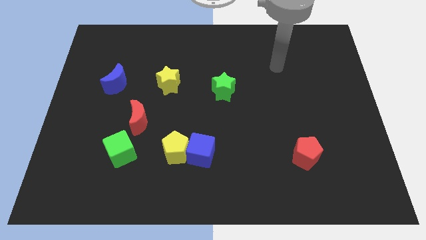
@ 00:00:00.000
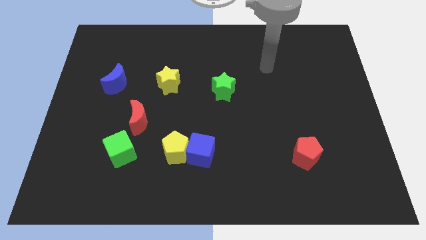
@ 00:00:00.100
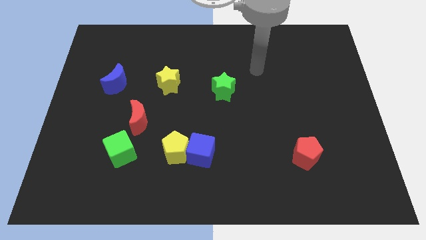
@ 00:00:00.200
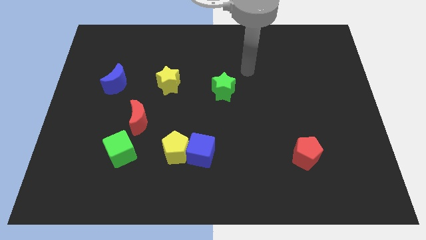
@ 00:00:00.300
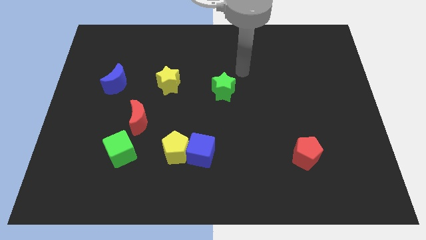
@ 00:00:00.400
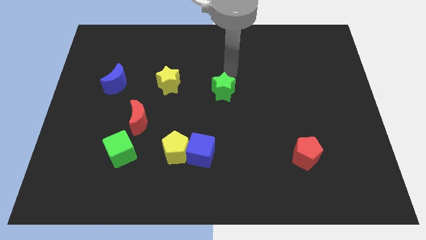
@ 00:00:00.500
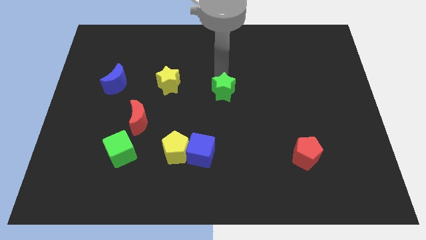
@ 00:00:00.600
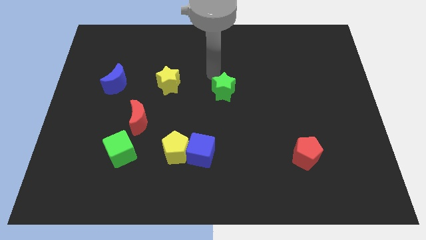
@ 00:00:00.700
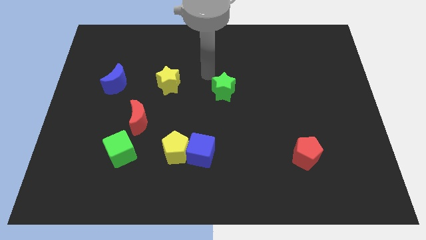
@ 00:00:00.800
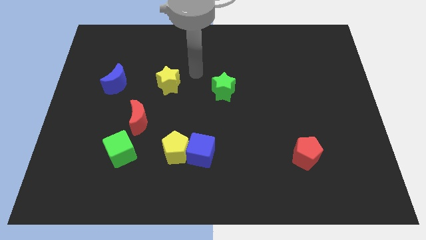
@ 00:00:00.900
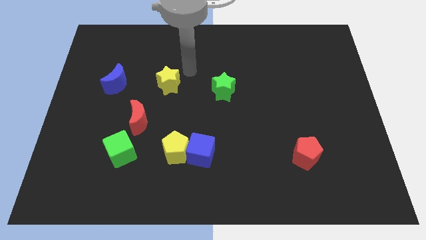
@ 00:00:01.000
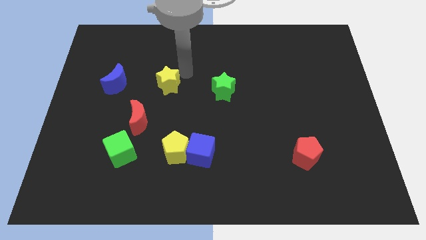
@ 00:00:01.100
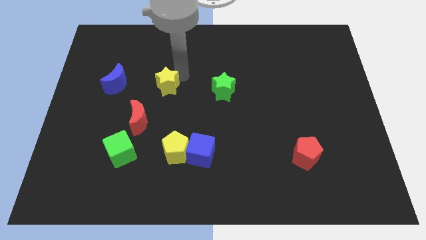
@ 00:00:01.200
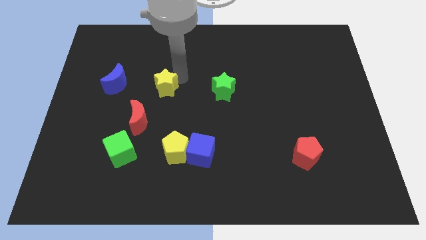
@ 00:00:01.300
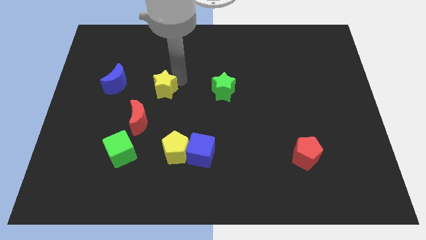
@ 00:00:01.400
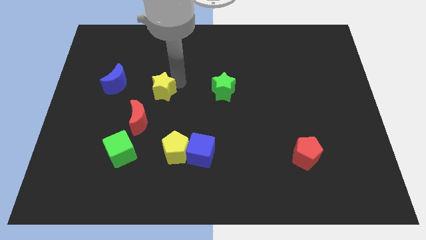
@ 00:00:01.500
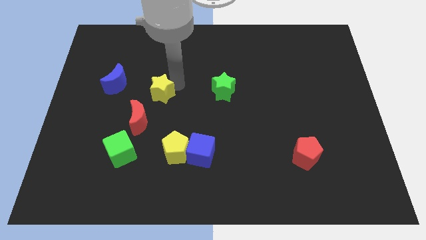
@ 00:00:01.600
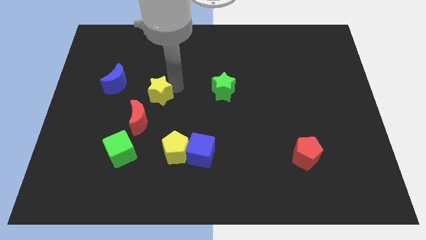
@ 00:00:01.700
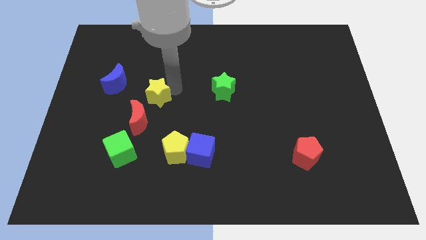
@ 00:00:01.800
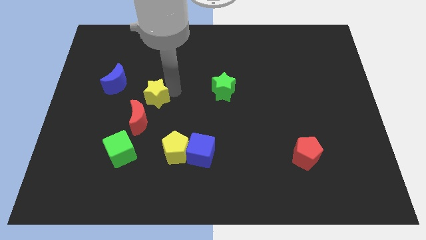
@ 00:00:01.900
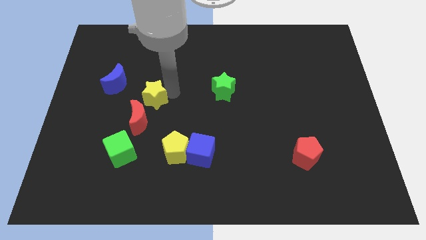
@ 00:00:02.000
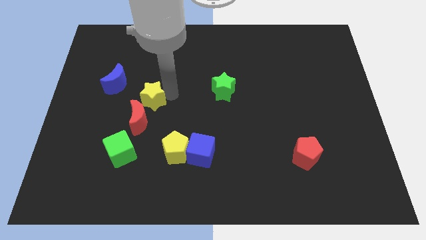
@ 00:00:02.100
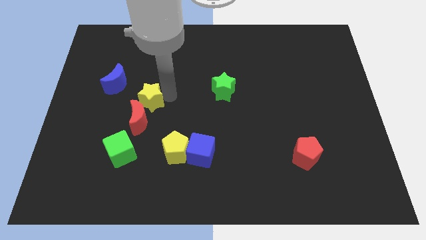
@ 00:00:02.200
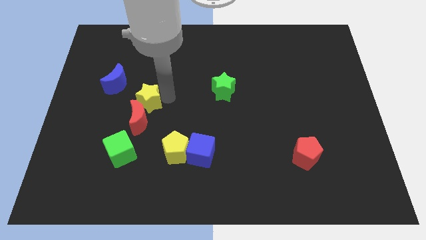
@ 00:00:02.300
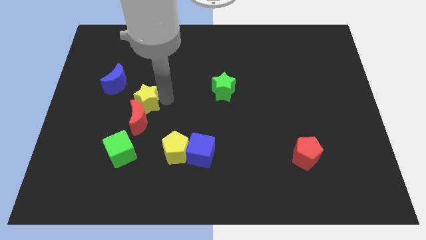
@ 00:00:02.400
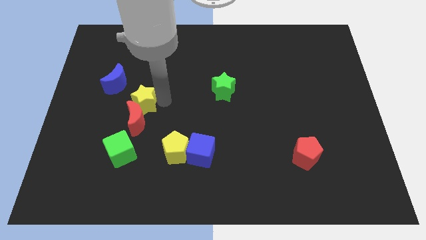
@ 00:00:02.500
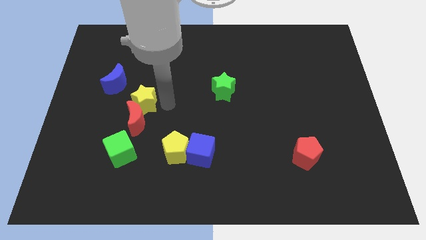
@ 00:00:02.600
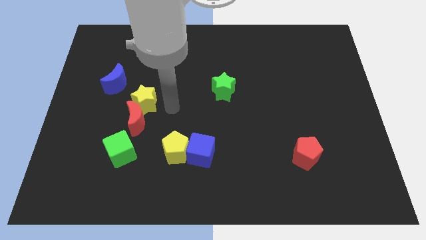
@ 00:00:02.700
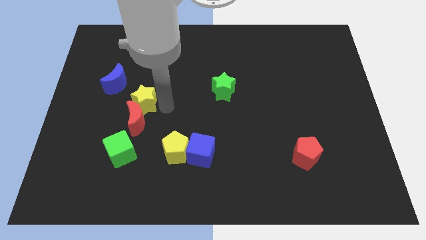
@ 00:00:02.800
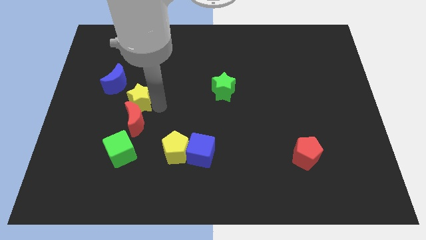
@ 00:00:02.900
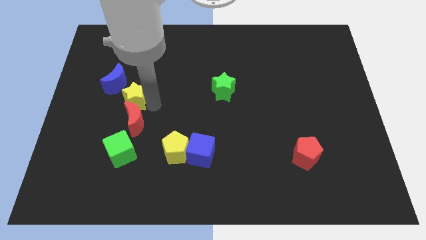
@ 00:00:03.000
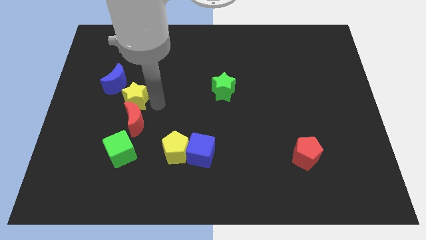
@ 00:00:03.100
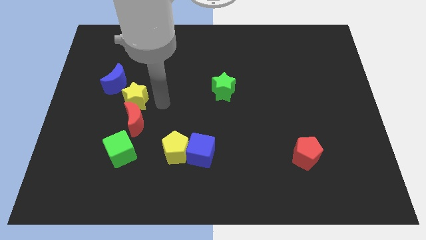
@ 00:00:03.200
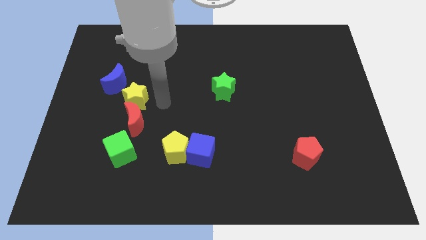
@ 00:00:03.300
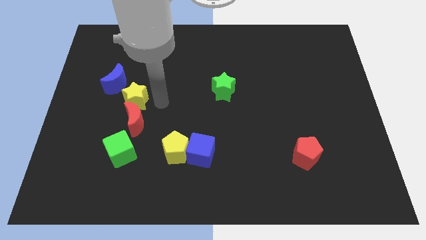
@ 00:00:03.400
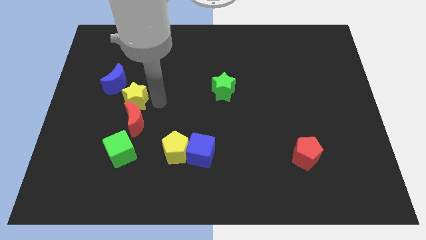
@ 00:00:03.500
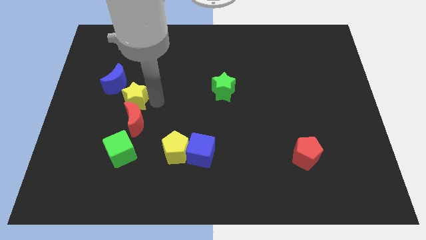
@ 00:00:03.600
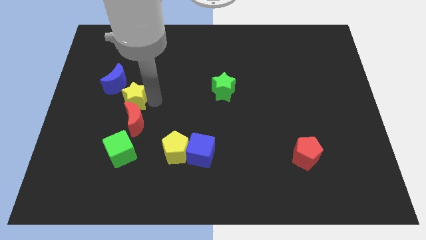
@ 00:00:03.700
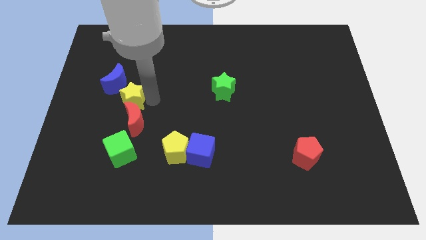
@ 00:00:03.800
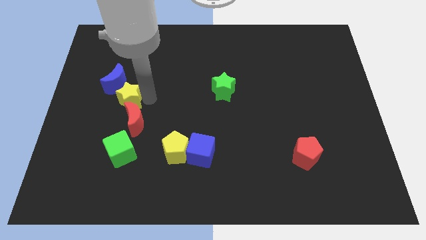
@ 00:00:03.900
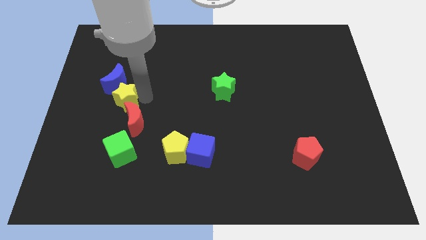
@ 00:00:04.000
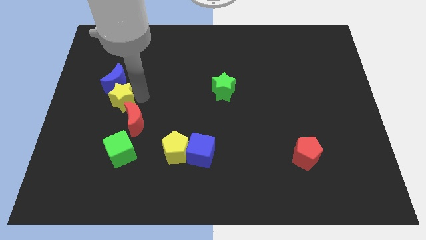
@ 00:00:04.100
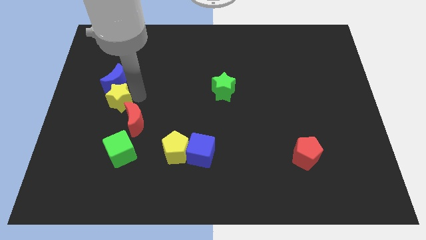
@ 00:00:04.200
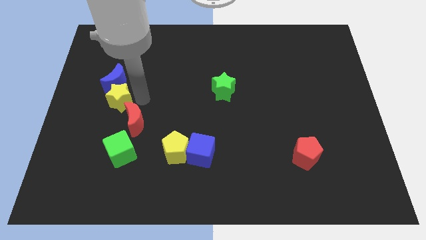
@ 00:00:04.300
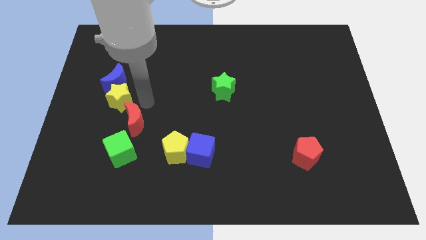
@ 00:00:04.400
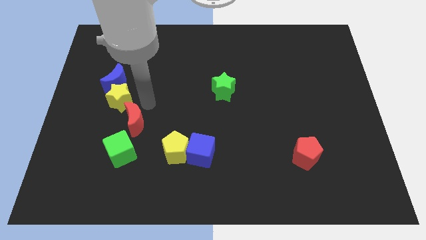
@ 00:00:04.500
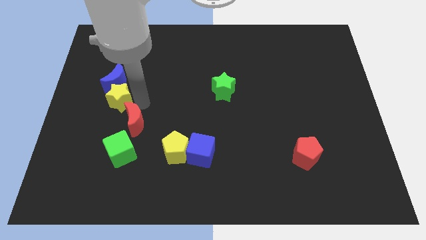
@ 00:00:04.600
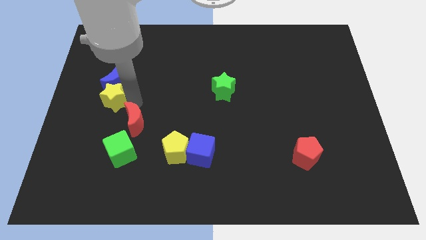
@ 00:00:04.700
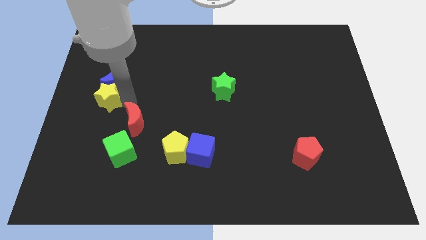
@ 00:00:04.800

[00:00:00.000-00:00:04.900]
slide the yellow star to the center left

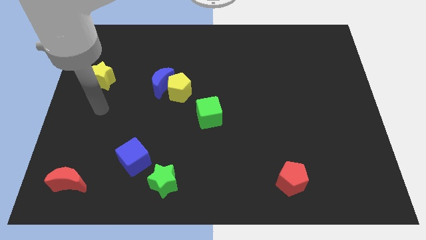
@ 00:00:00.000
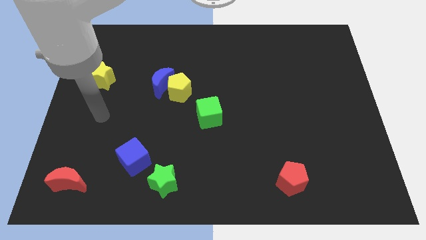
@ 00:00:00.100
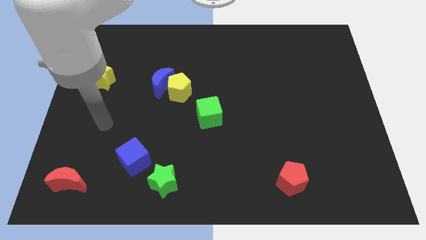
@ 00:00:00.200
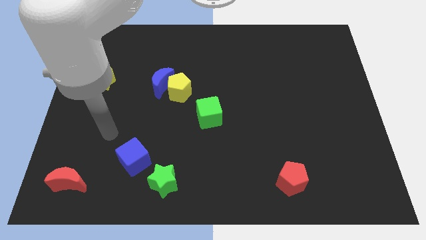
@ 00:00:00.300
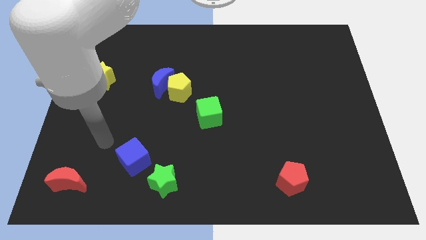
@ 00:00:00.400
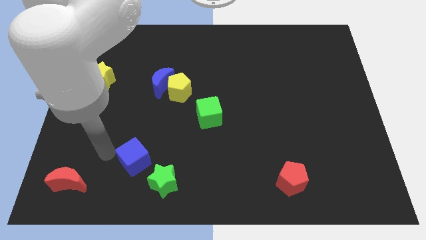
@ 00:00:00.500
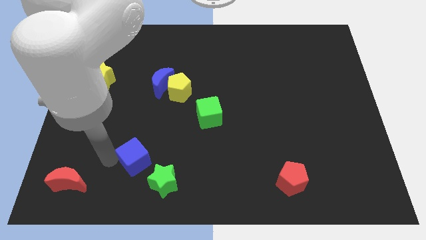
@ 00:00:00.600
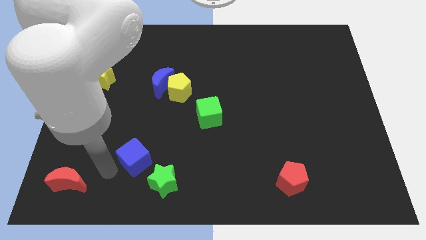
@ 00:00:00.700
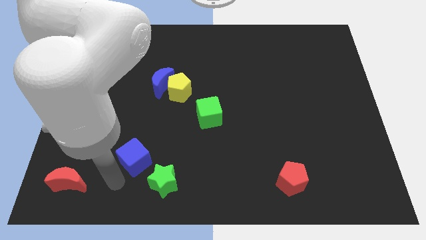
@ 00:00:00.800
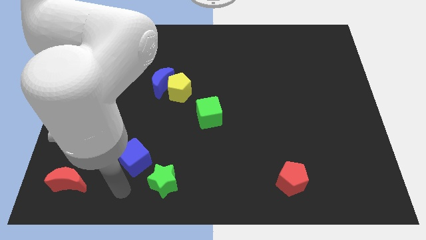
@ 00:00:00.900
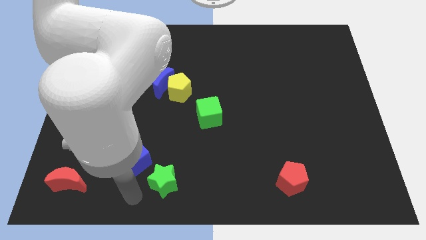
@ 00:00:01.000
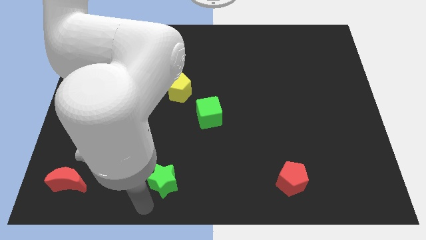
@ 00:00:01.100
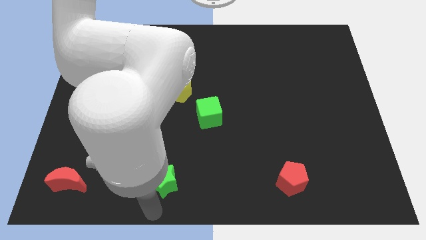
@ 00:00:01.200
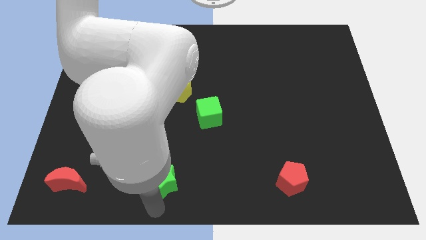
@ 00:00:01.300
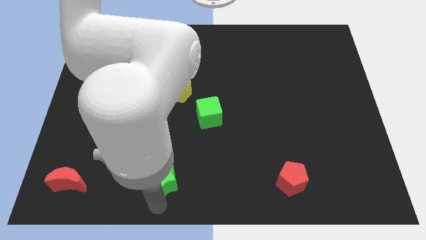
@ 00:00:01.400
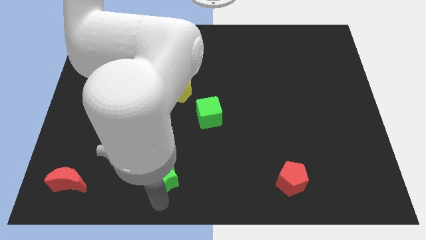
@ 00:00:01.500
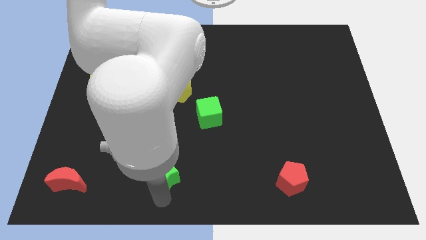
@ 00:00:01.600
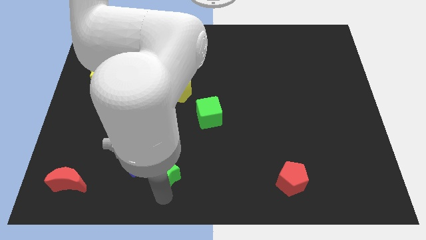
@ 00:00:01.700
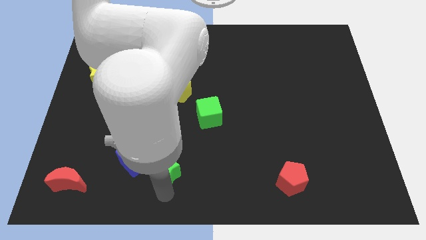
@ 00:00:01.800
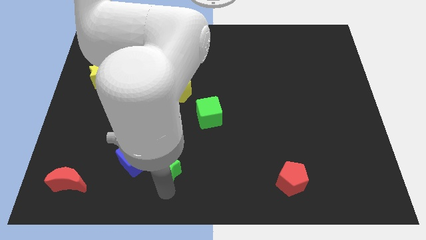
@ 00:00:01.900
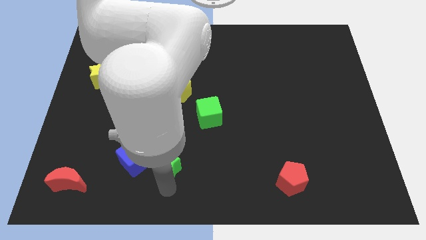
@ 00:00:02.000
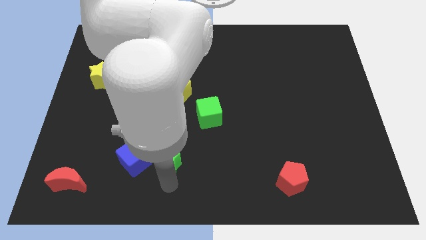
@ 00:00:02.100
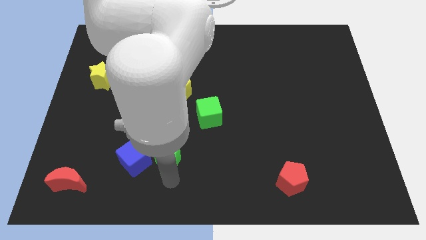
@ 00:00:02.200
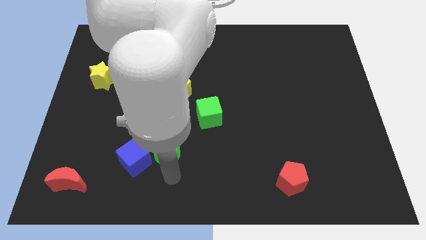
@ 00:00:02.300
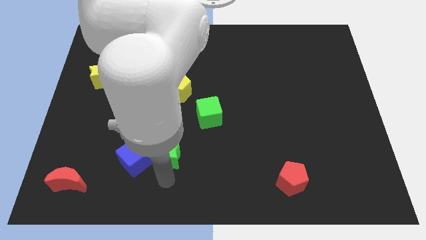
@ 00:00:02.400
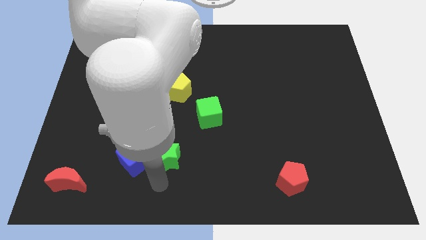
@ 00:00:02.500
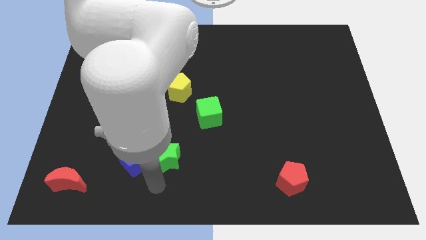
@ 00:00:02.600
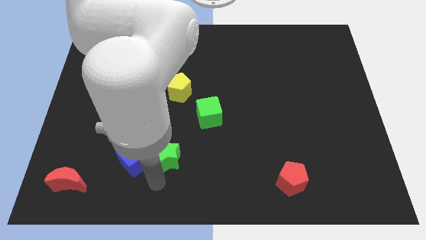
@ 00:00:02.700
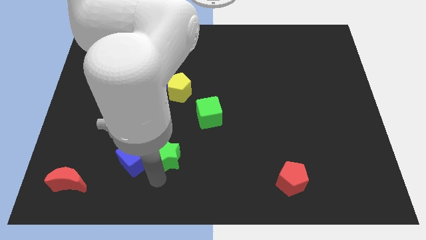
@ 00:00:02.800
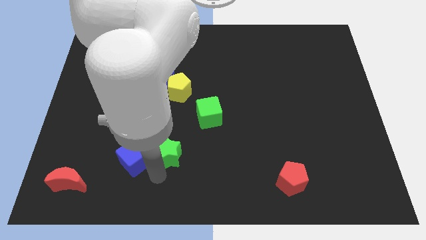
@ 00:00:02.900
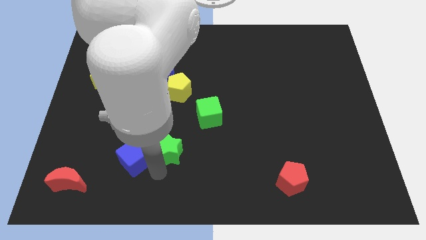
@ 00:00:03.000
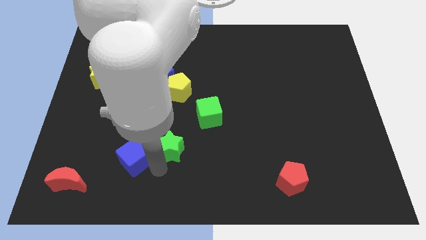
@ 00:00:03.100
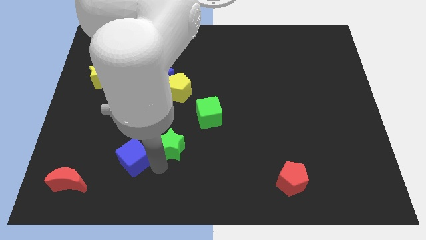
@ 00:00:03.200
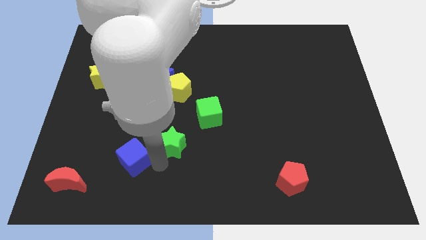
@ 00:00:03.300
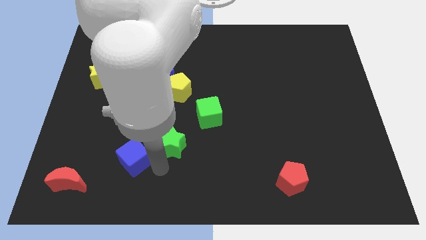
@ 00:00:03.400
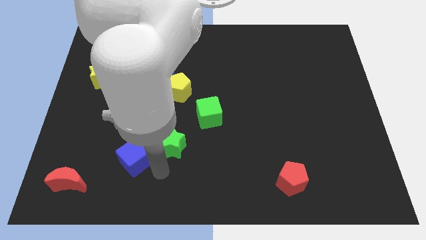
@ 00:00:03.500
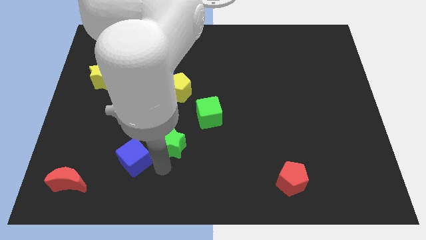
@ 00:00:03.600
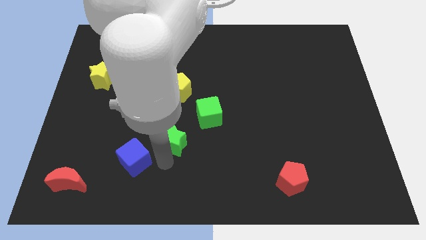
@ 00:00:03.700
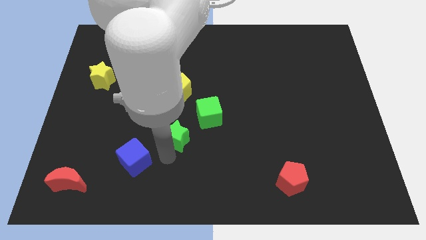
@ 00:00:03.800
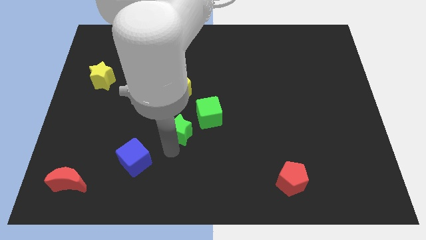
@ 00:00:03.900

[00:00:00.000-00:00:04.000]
put the green star to the center of the board
